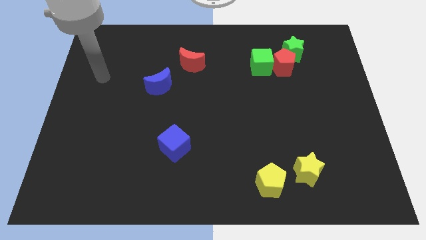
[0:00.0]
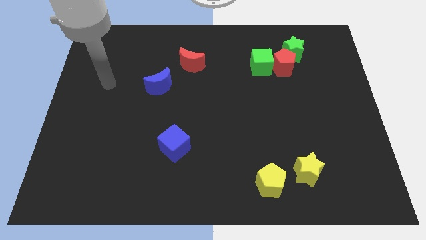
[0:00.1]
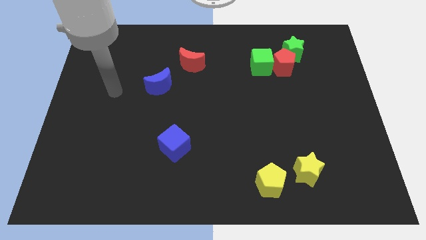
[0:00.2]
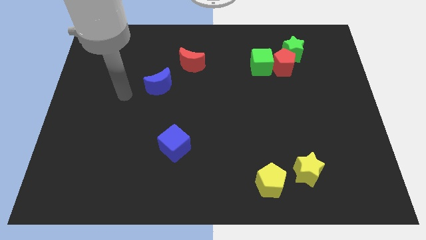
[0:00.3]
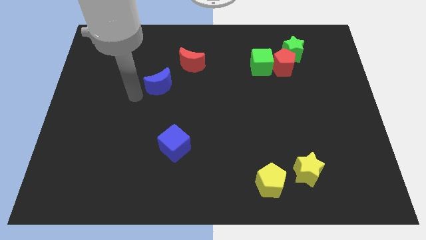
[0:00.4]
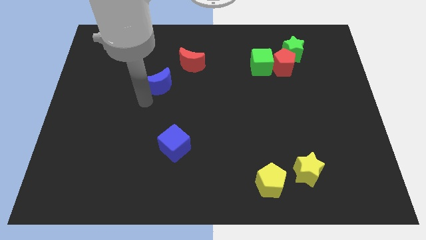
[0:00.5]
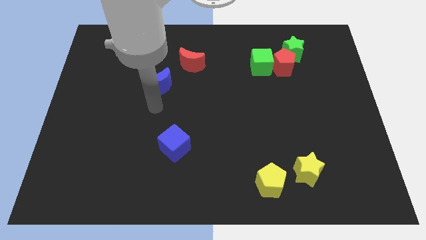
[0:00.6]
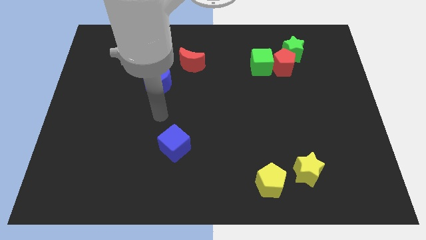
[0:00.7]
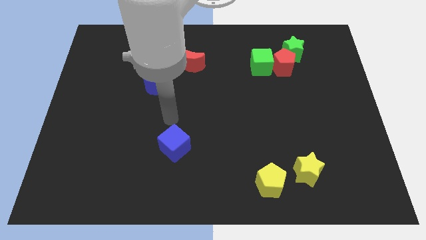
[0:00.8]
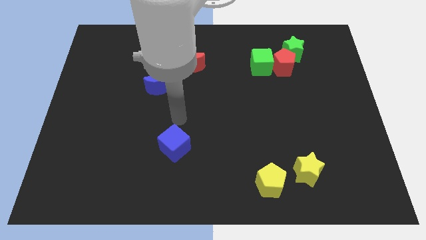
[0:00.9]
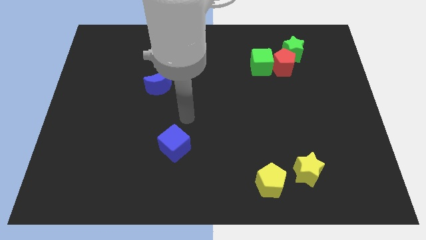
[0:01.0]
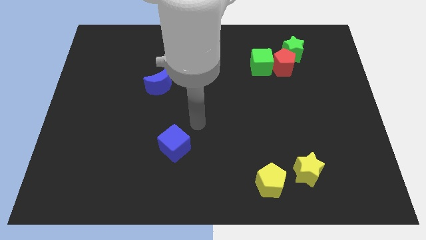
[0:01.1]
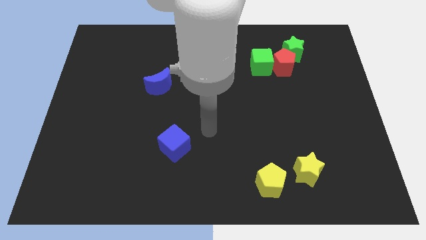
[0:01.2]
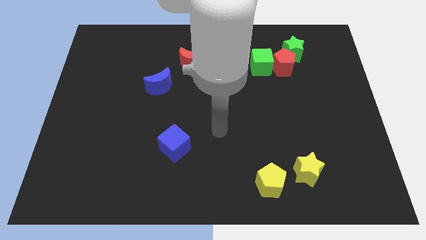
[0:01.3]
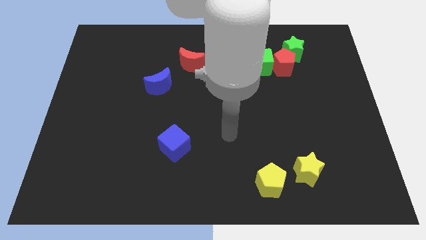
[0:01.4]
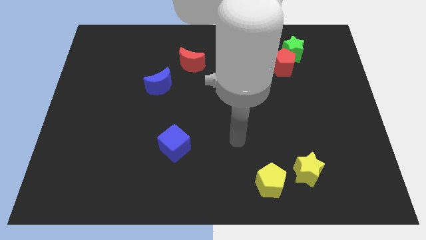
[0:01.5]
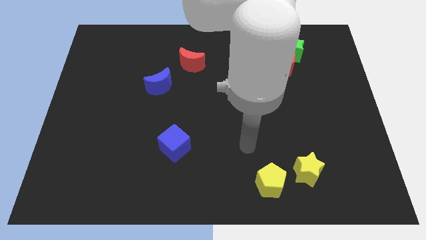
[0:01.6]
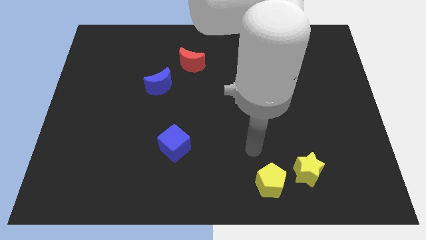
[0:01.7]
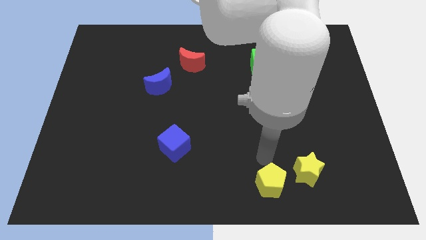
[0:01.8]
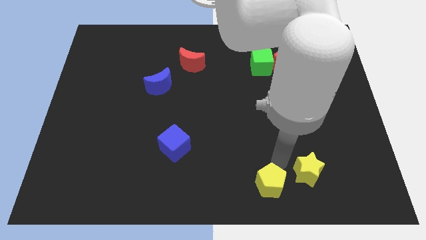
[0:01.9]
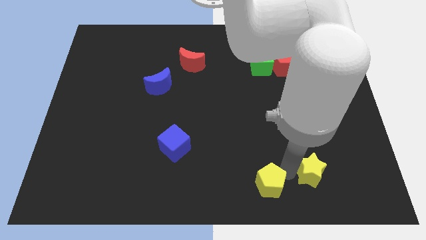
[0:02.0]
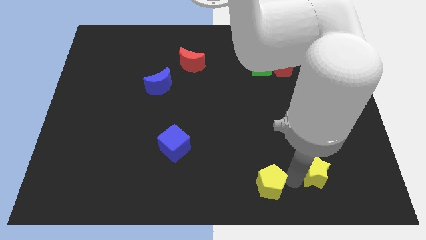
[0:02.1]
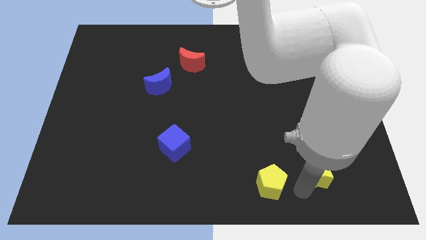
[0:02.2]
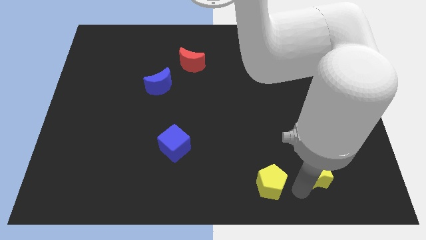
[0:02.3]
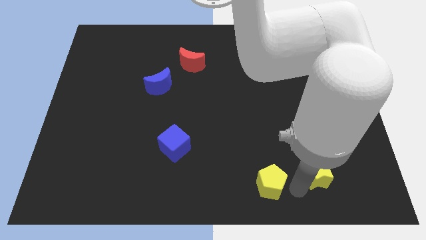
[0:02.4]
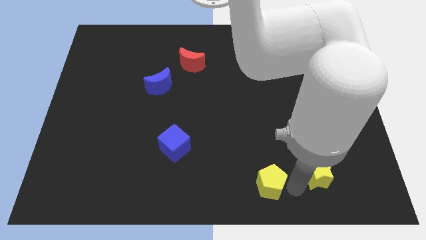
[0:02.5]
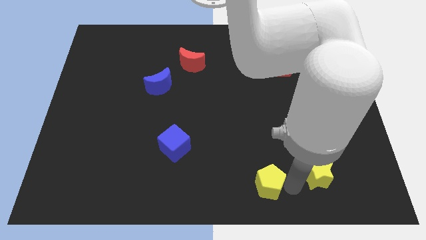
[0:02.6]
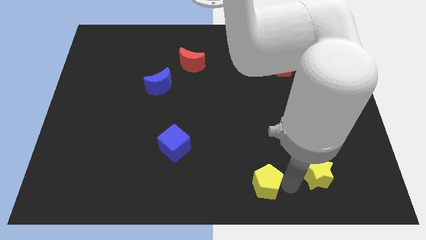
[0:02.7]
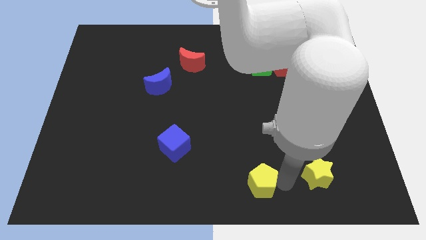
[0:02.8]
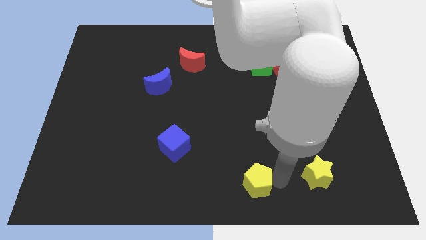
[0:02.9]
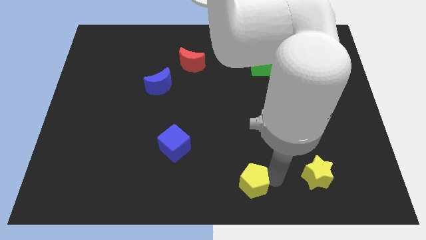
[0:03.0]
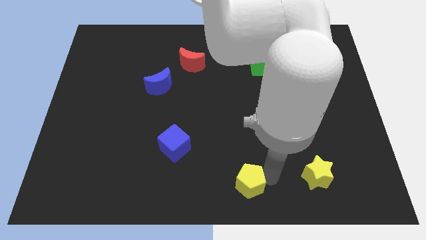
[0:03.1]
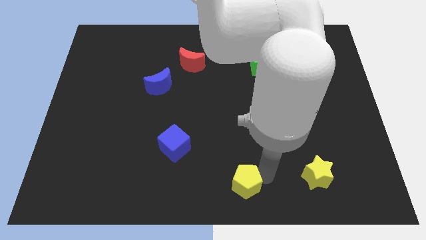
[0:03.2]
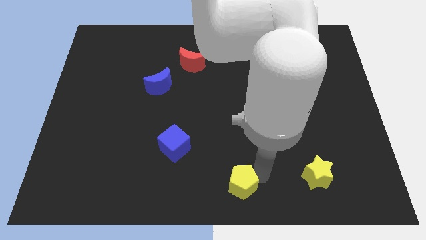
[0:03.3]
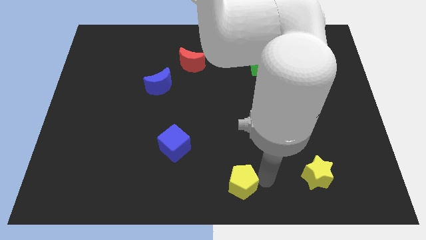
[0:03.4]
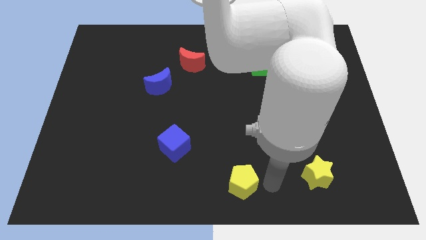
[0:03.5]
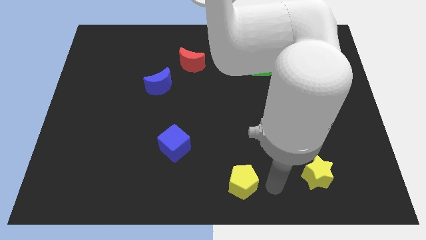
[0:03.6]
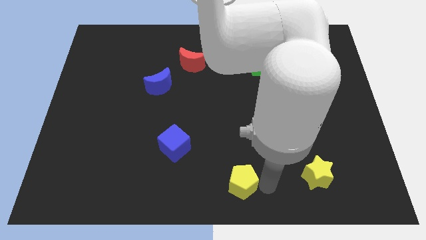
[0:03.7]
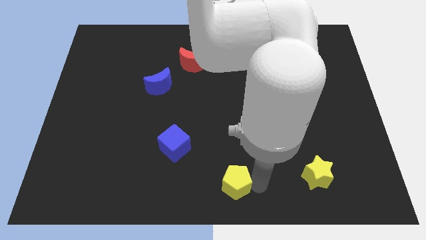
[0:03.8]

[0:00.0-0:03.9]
slightly slide the yellow pentagon to the left

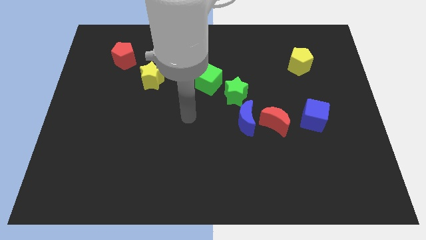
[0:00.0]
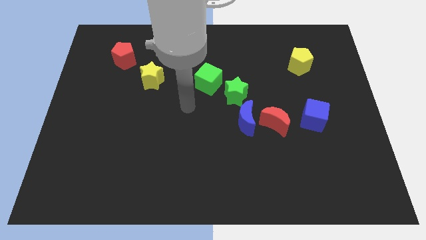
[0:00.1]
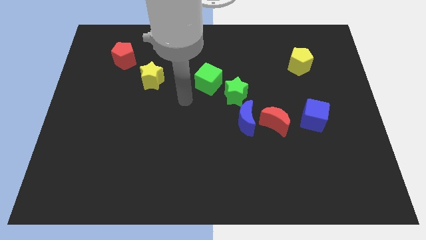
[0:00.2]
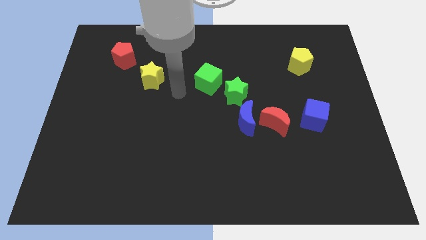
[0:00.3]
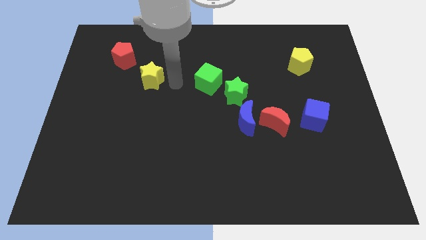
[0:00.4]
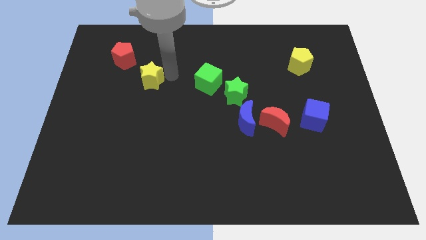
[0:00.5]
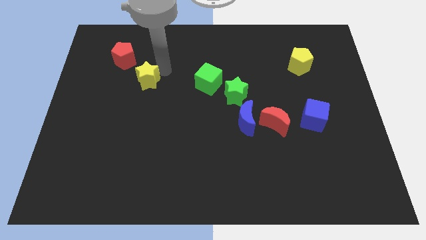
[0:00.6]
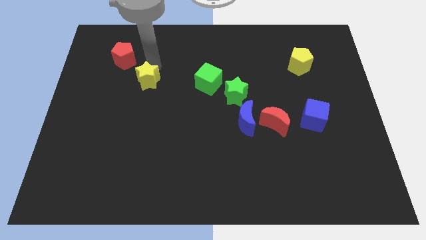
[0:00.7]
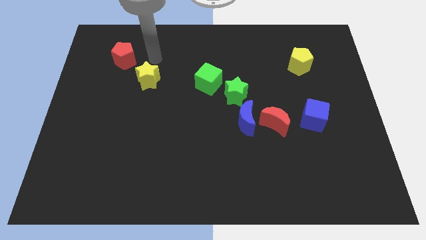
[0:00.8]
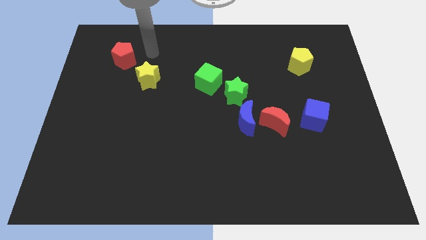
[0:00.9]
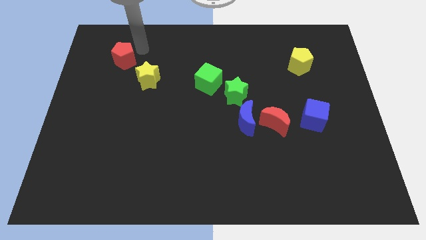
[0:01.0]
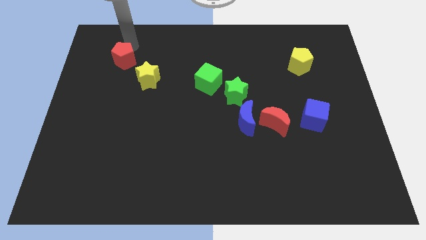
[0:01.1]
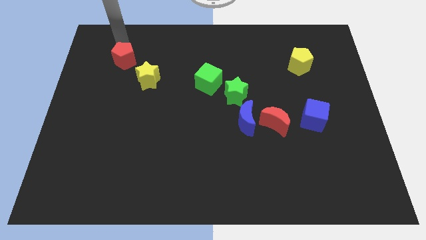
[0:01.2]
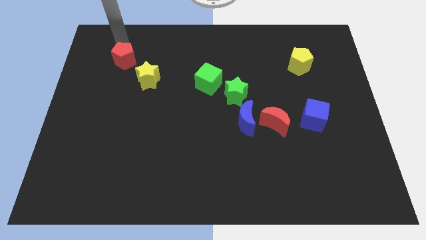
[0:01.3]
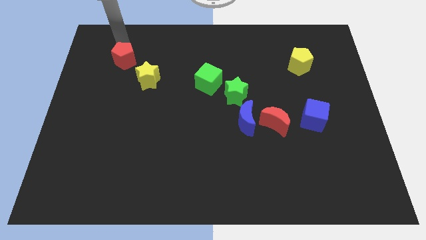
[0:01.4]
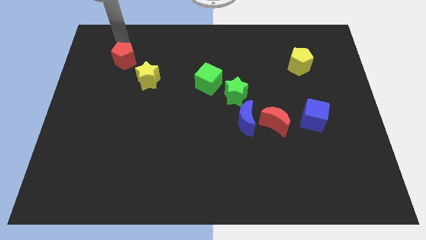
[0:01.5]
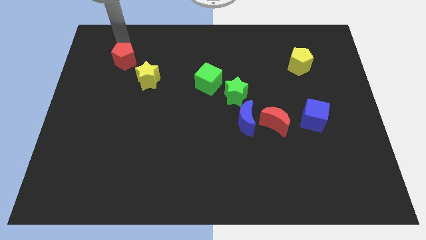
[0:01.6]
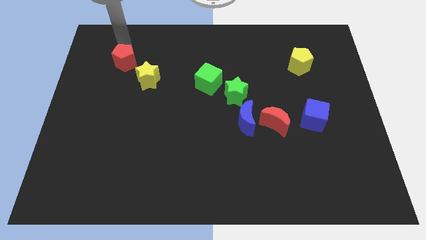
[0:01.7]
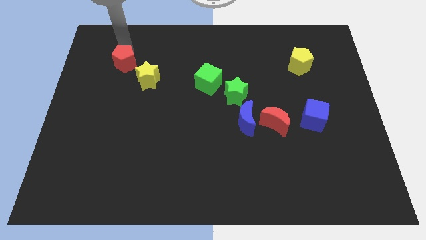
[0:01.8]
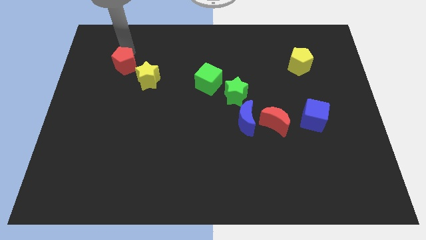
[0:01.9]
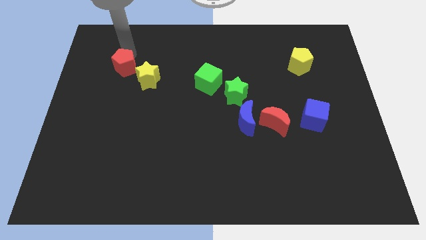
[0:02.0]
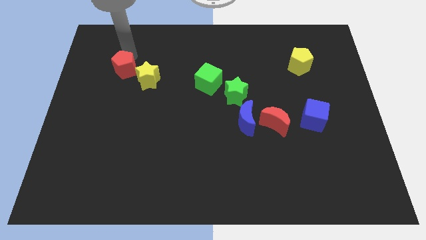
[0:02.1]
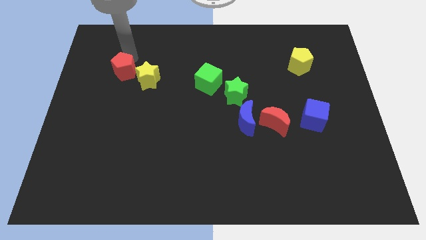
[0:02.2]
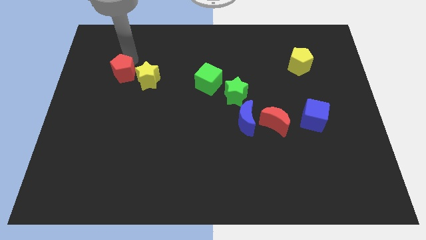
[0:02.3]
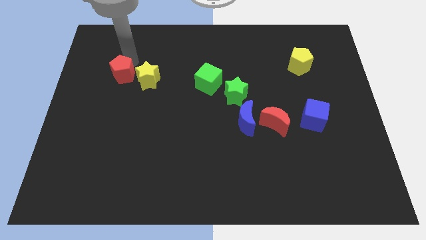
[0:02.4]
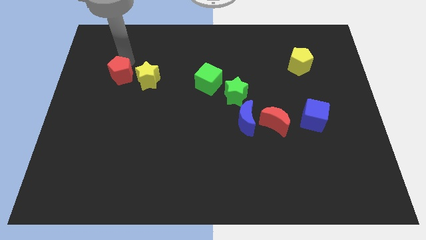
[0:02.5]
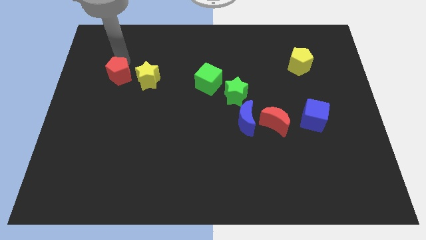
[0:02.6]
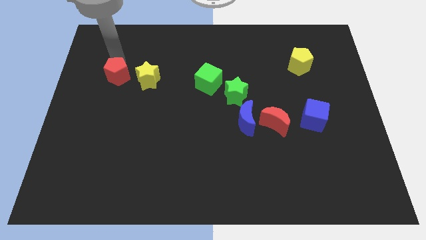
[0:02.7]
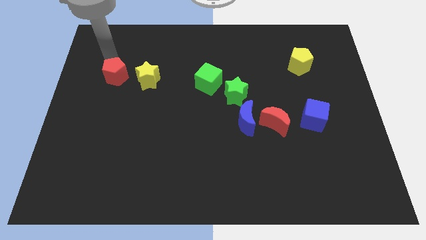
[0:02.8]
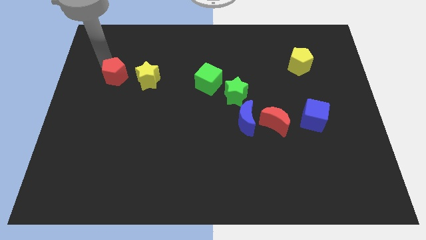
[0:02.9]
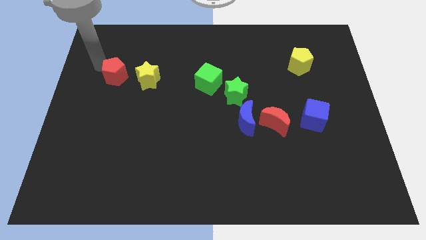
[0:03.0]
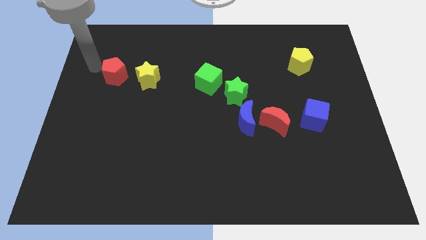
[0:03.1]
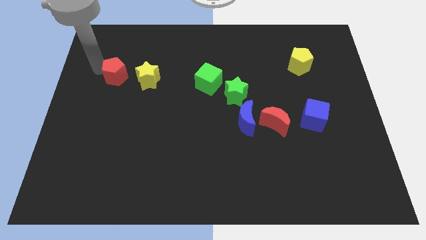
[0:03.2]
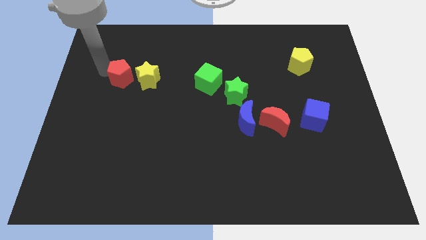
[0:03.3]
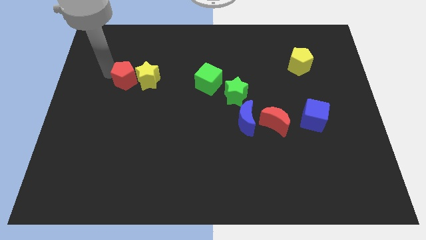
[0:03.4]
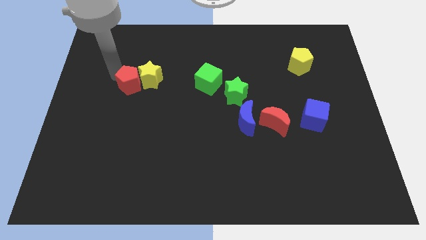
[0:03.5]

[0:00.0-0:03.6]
slide the red pentagon diagonally downwards and right somewhat
